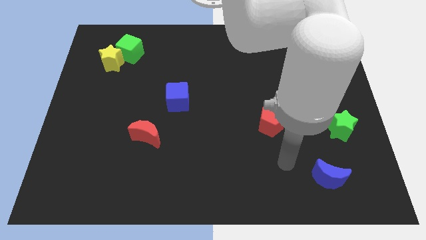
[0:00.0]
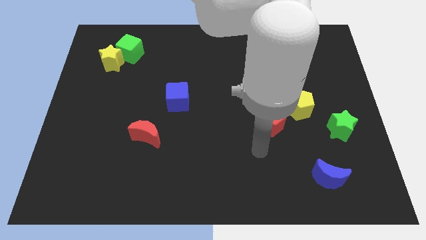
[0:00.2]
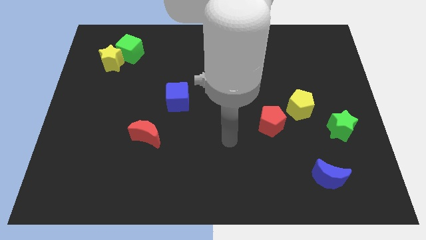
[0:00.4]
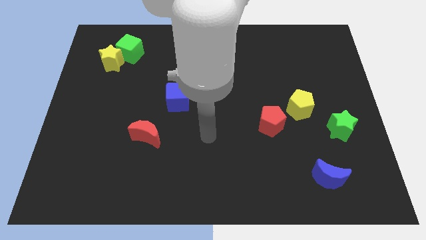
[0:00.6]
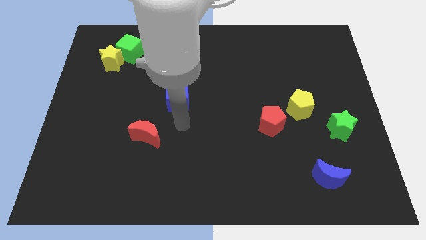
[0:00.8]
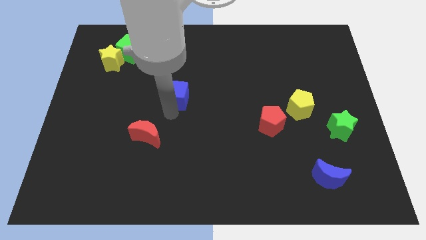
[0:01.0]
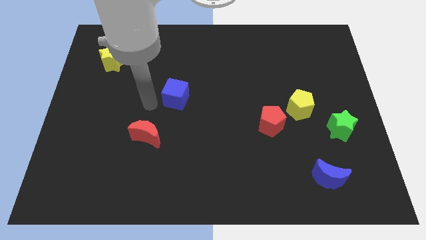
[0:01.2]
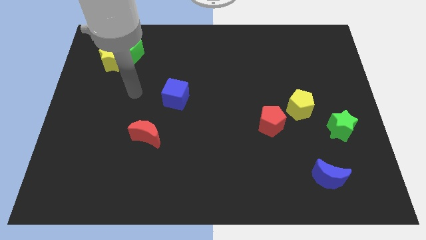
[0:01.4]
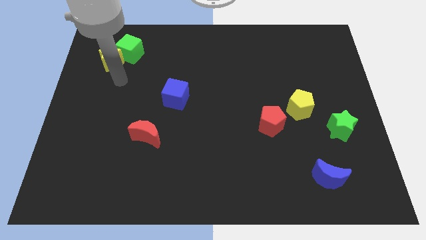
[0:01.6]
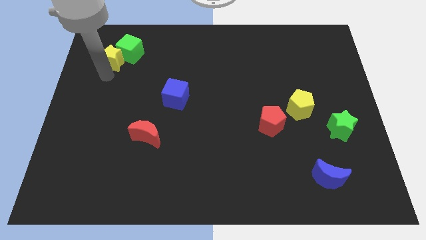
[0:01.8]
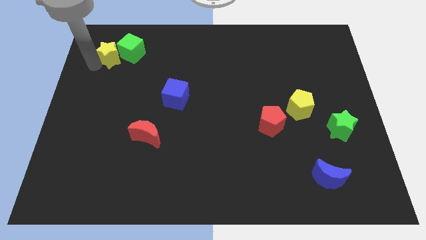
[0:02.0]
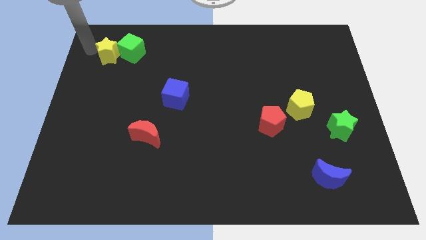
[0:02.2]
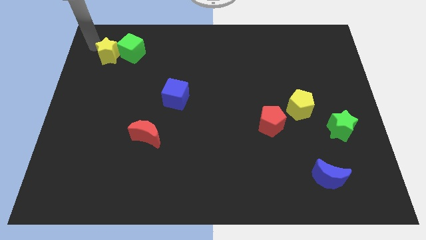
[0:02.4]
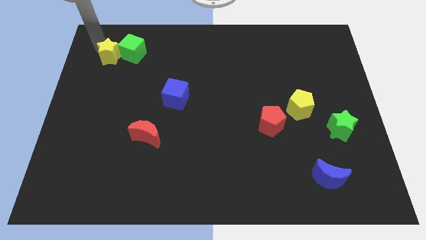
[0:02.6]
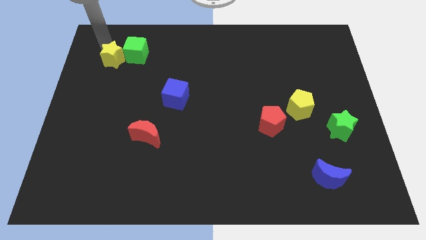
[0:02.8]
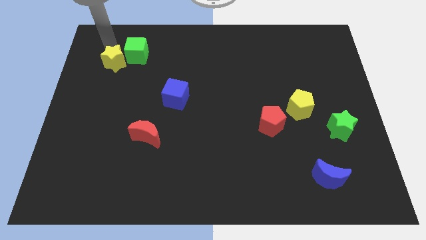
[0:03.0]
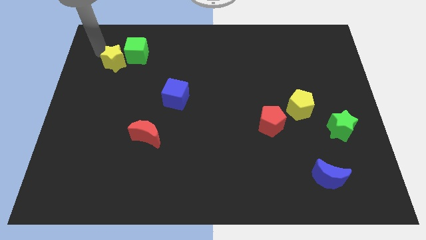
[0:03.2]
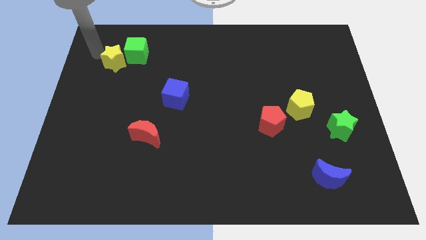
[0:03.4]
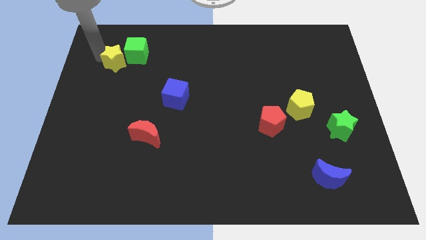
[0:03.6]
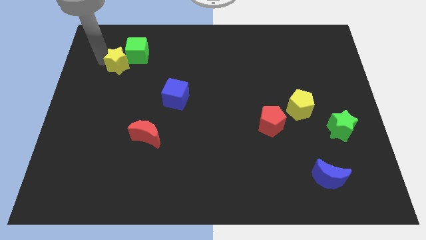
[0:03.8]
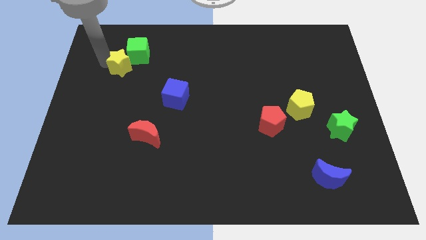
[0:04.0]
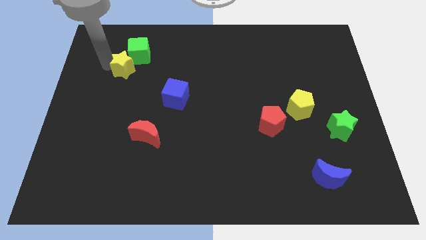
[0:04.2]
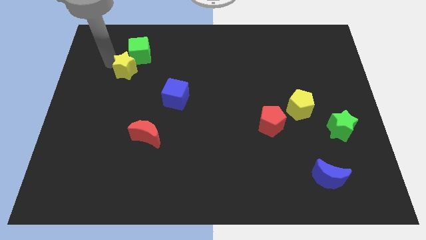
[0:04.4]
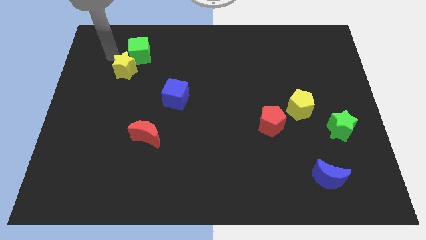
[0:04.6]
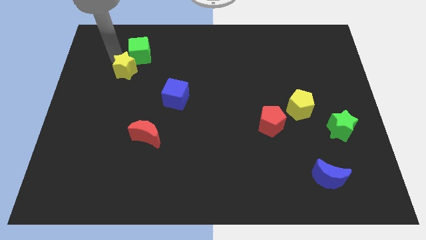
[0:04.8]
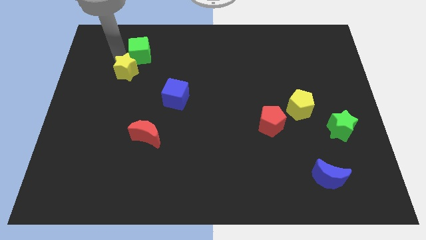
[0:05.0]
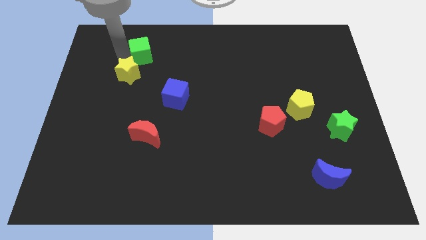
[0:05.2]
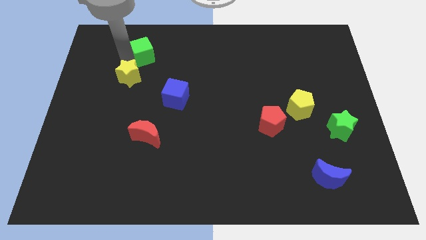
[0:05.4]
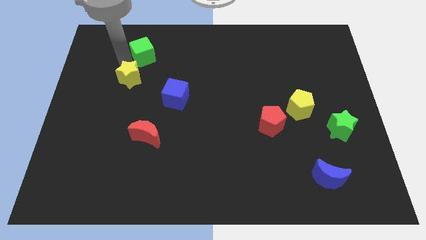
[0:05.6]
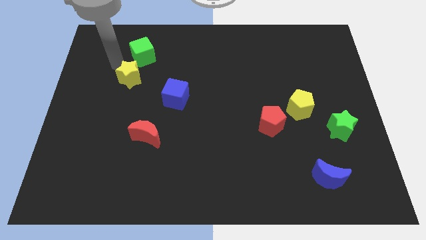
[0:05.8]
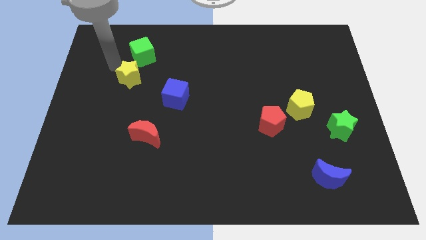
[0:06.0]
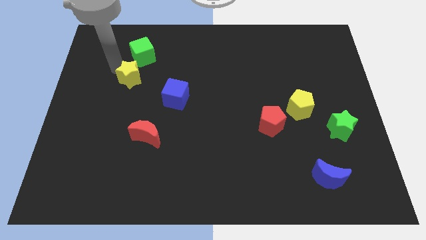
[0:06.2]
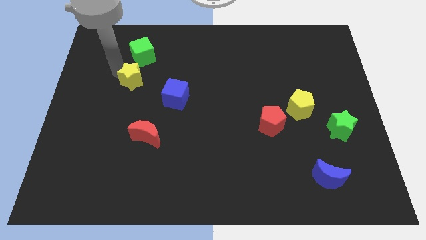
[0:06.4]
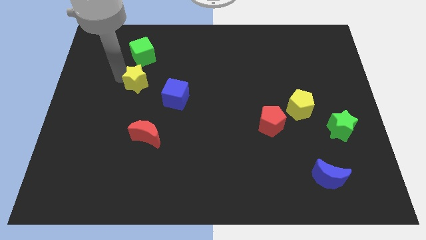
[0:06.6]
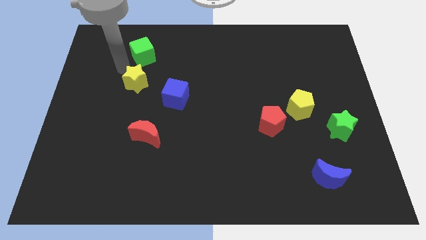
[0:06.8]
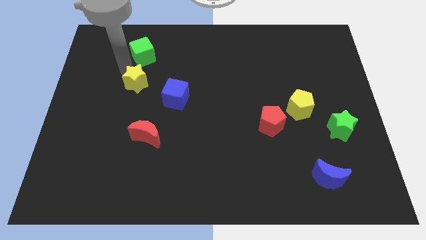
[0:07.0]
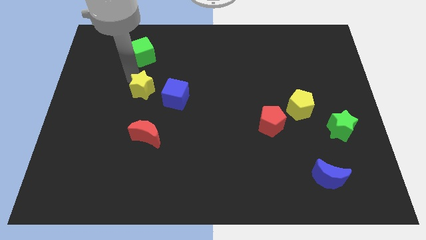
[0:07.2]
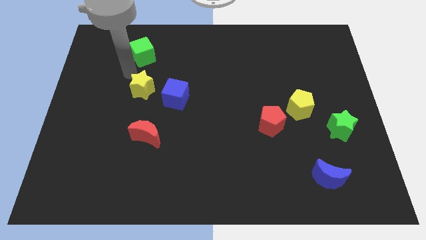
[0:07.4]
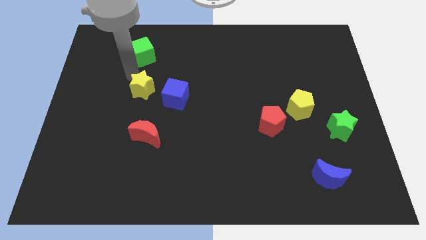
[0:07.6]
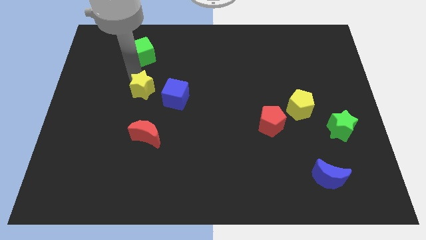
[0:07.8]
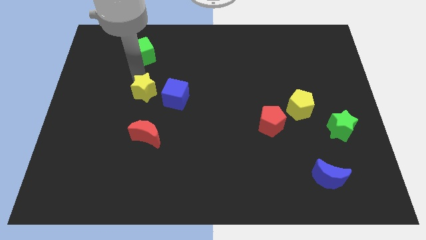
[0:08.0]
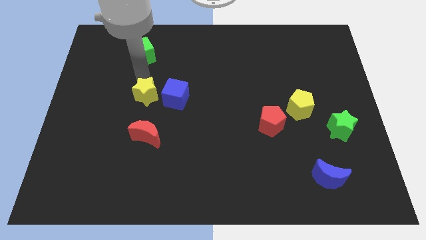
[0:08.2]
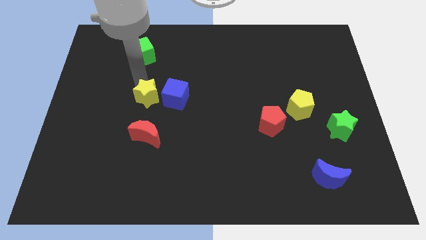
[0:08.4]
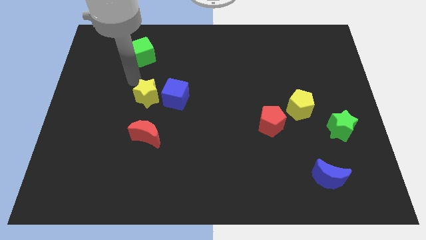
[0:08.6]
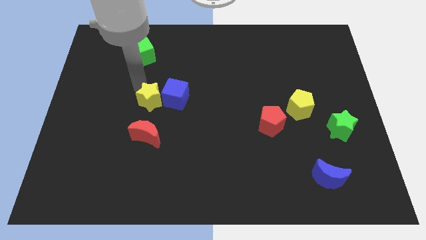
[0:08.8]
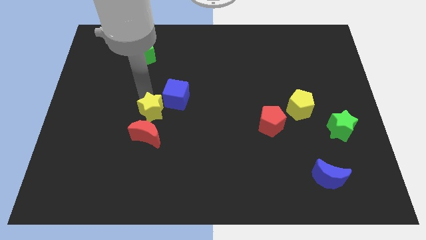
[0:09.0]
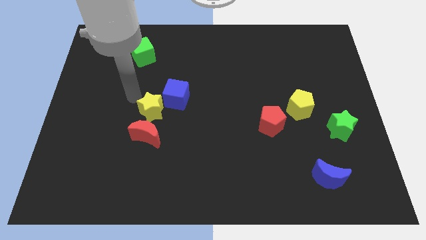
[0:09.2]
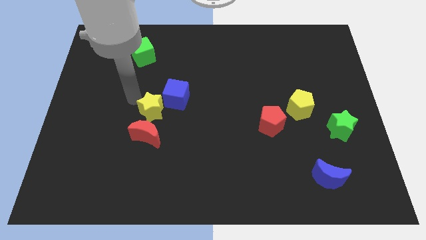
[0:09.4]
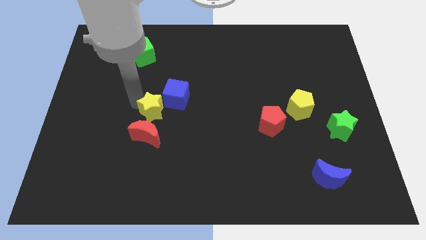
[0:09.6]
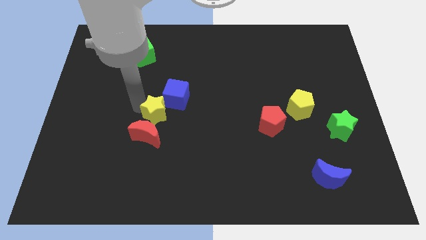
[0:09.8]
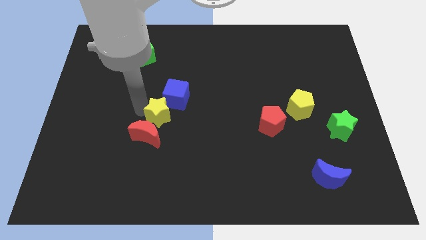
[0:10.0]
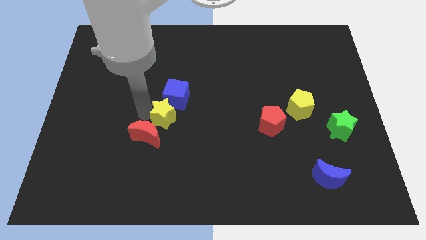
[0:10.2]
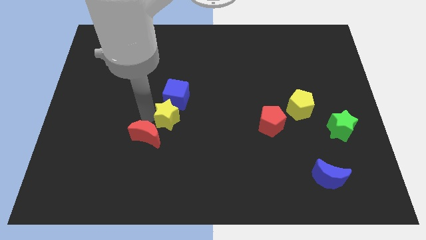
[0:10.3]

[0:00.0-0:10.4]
push the yellow star to the right of the red moon

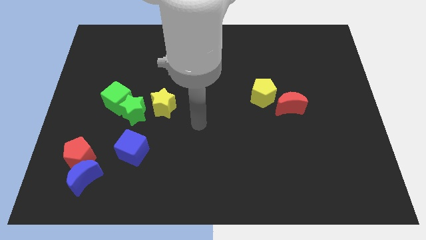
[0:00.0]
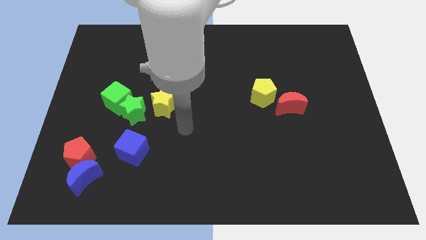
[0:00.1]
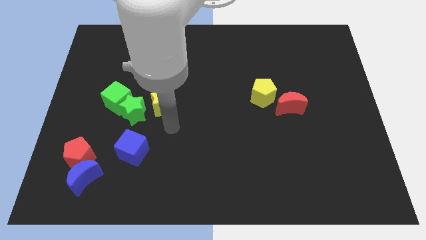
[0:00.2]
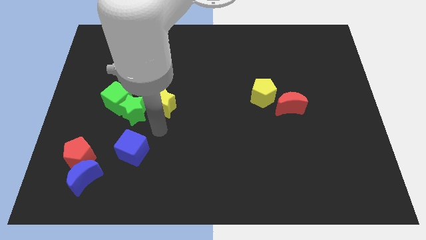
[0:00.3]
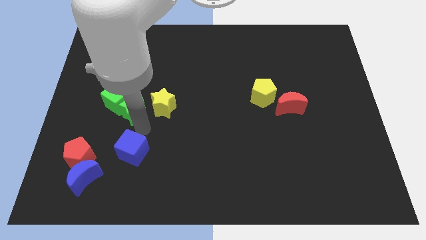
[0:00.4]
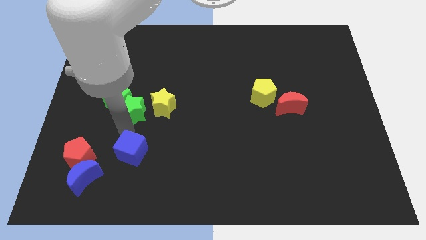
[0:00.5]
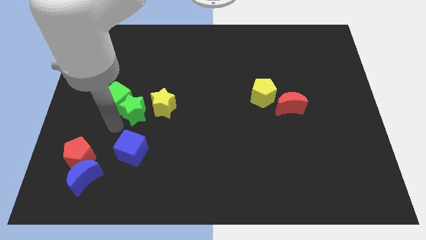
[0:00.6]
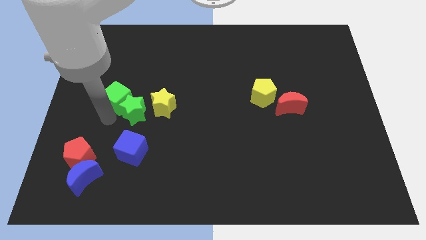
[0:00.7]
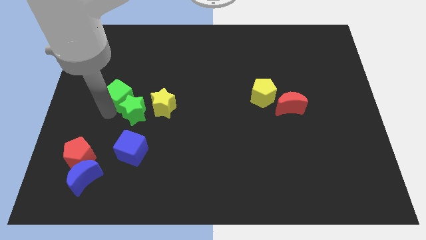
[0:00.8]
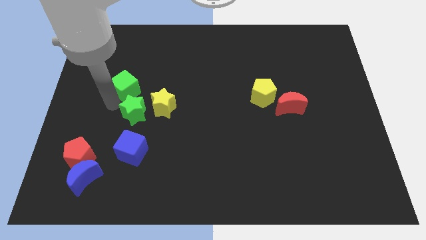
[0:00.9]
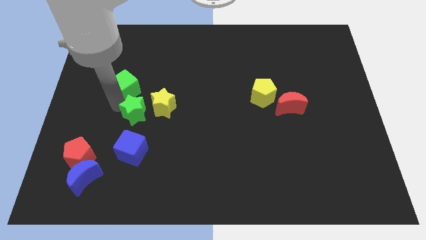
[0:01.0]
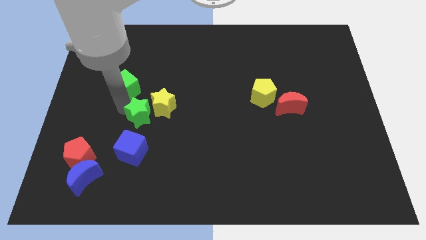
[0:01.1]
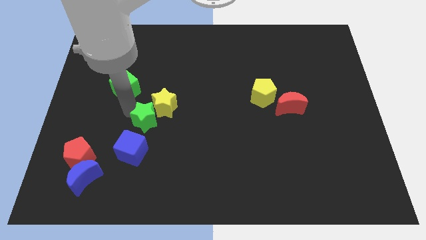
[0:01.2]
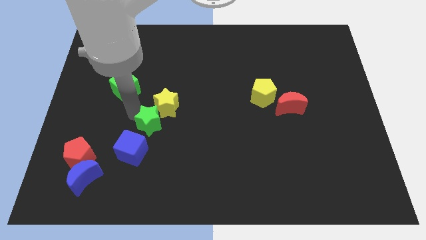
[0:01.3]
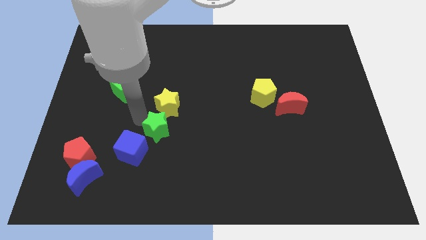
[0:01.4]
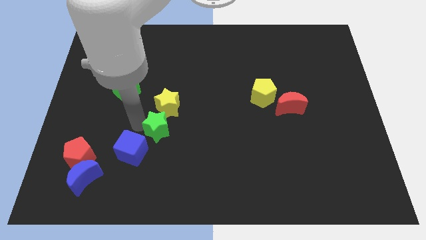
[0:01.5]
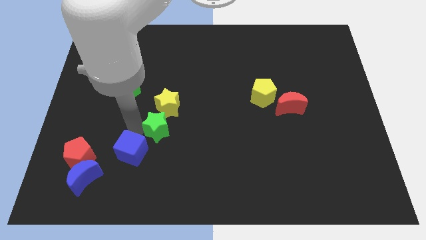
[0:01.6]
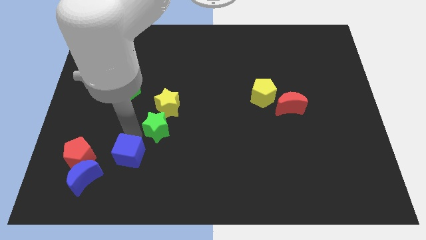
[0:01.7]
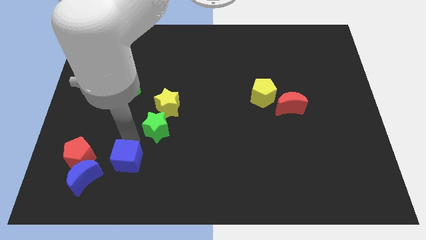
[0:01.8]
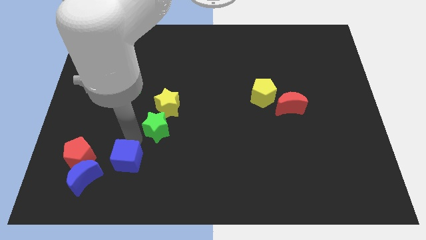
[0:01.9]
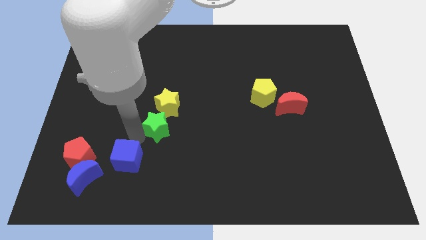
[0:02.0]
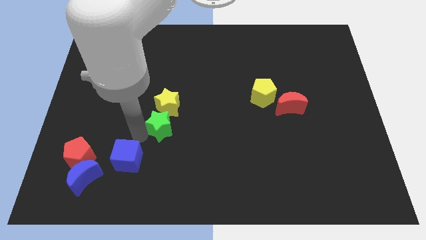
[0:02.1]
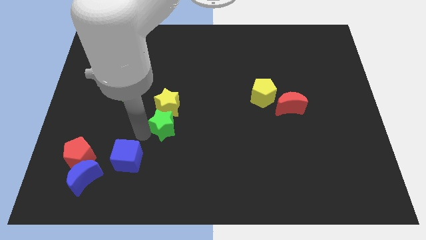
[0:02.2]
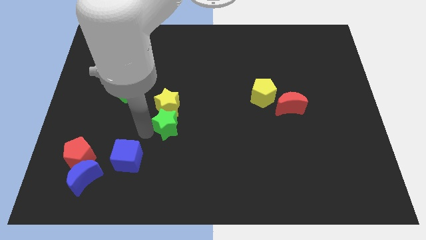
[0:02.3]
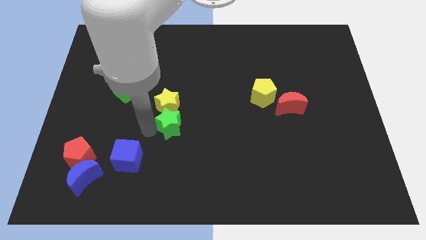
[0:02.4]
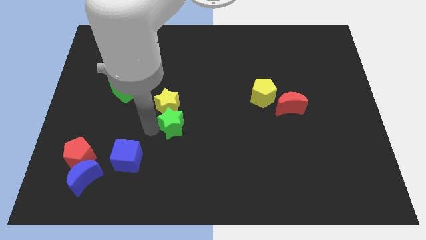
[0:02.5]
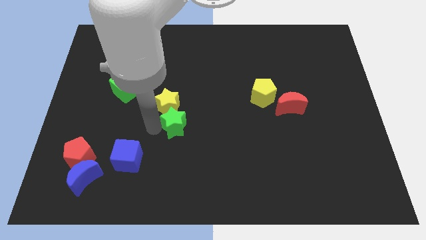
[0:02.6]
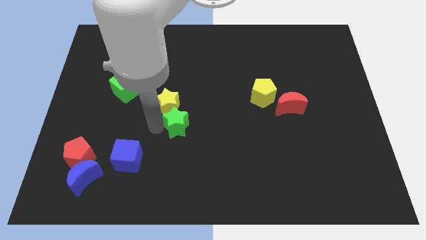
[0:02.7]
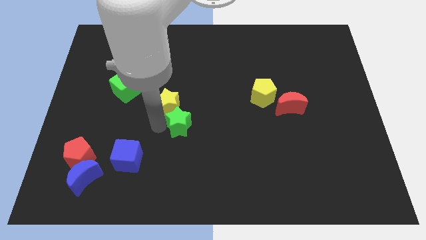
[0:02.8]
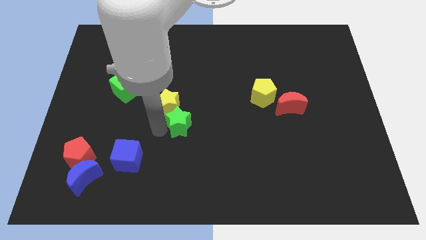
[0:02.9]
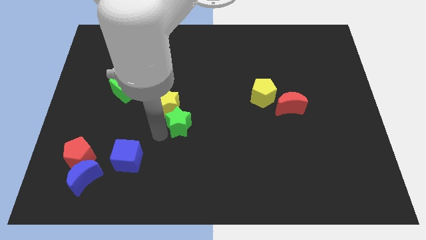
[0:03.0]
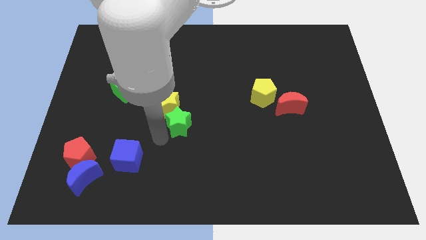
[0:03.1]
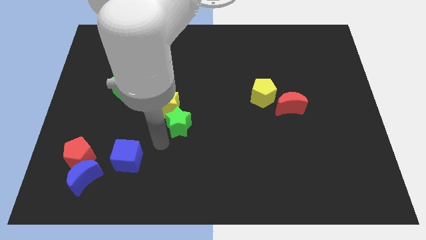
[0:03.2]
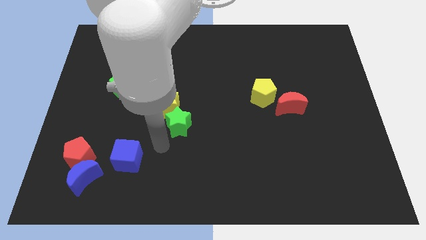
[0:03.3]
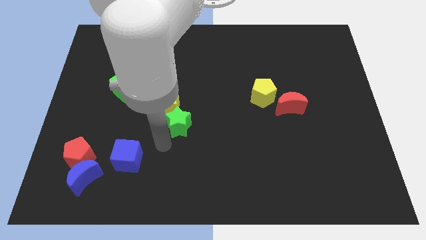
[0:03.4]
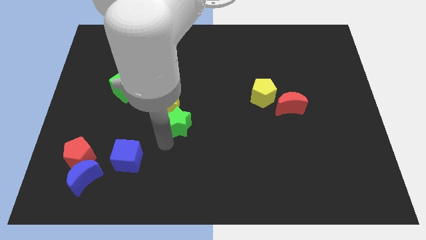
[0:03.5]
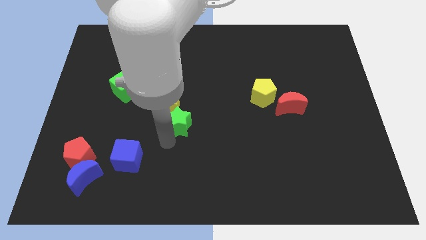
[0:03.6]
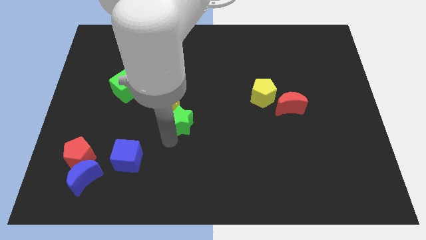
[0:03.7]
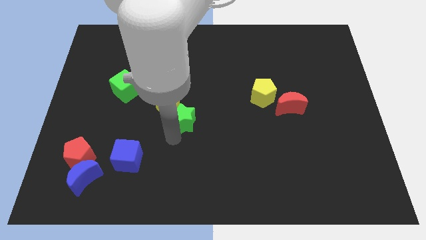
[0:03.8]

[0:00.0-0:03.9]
move the green star to the right of the yellow star
